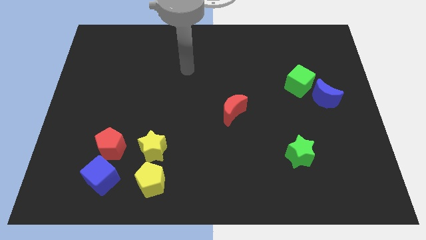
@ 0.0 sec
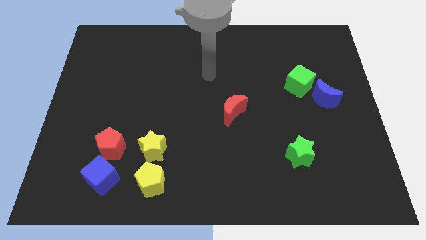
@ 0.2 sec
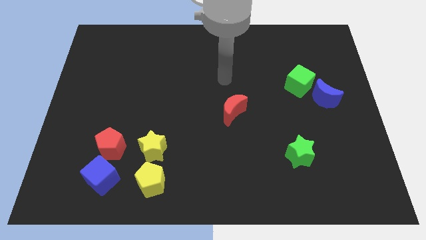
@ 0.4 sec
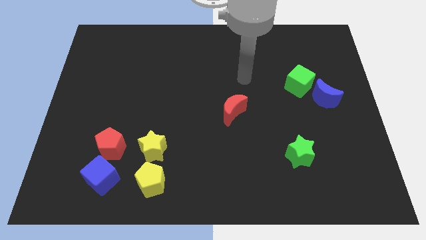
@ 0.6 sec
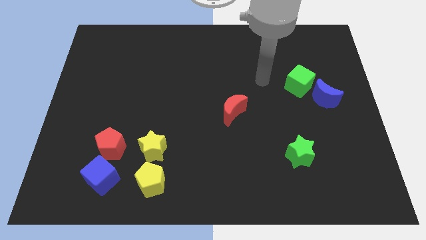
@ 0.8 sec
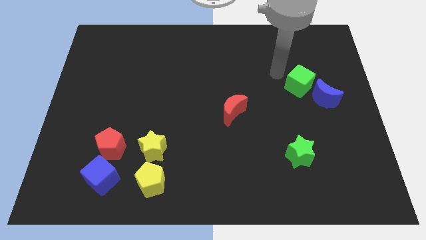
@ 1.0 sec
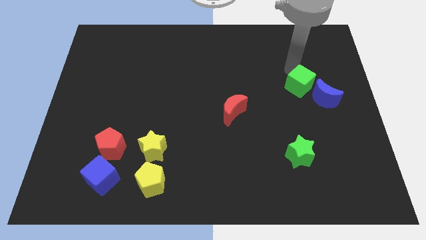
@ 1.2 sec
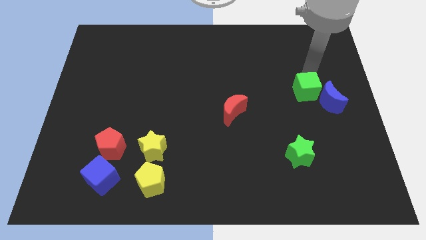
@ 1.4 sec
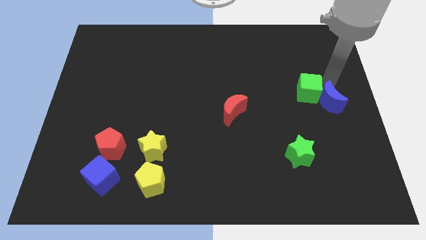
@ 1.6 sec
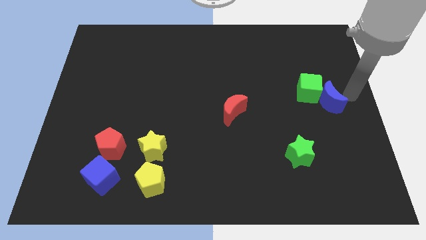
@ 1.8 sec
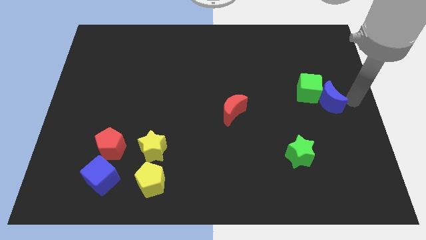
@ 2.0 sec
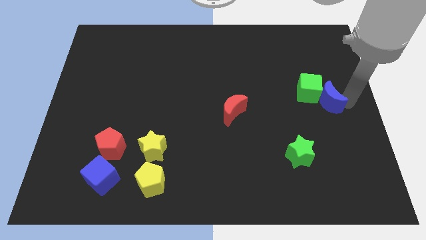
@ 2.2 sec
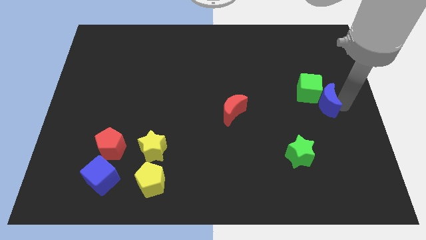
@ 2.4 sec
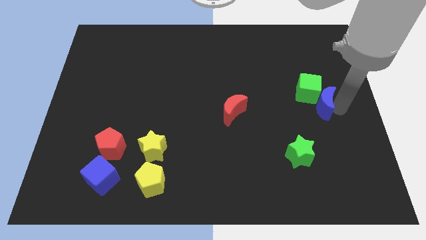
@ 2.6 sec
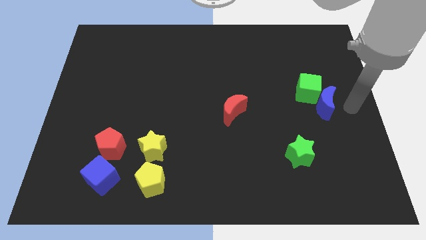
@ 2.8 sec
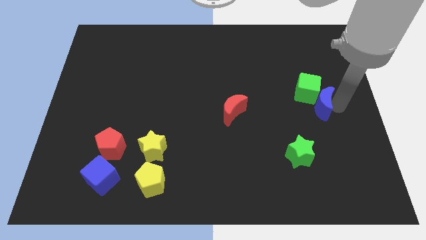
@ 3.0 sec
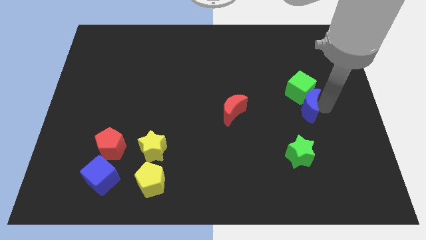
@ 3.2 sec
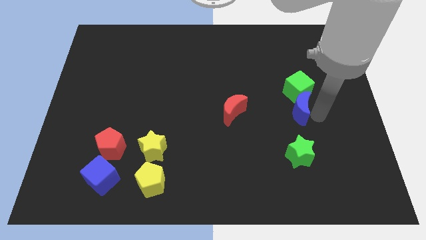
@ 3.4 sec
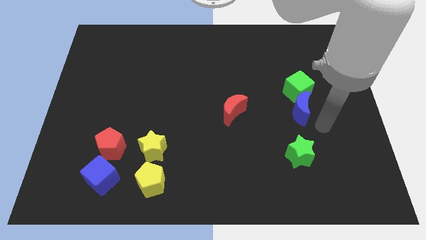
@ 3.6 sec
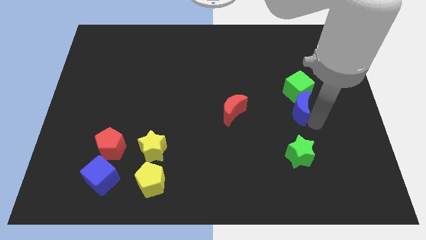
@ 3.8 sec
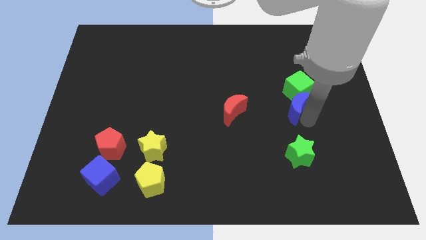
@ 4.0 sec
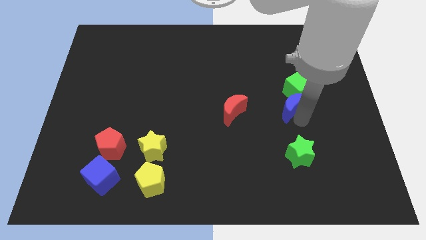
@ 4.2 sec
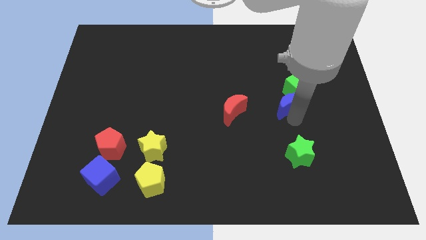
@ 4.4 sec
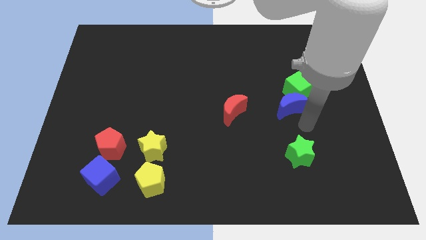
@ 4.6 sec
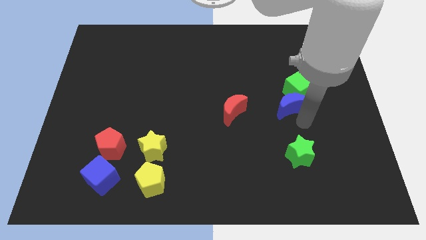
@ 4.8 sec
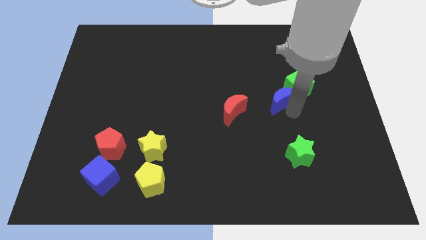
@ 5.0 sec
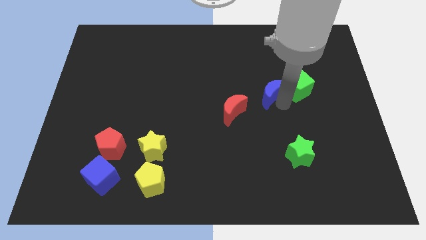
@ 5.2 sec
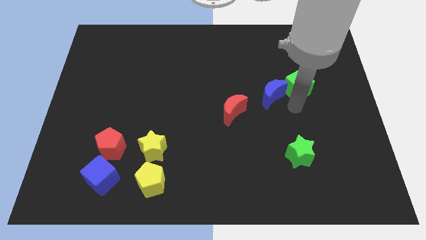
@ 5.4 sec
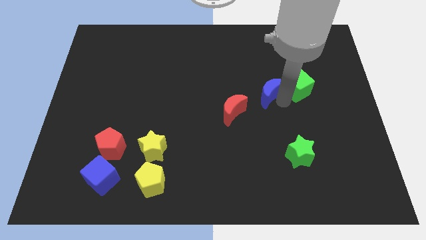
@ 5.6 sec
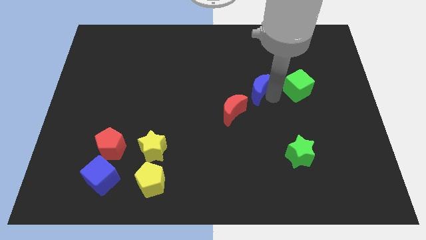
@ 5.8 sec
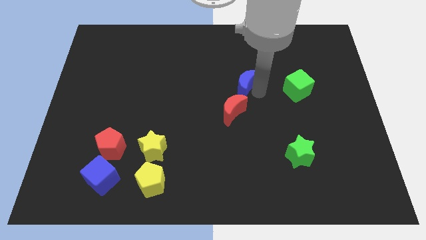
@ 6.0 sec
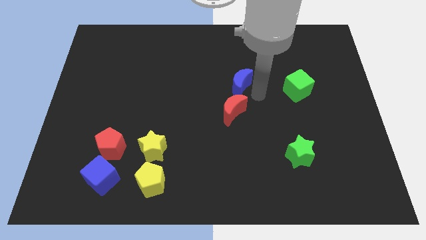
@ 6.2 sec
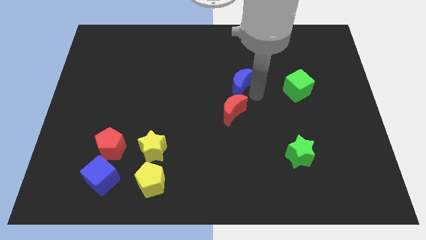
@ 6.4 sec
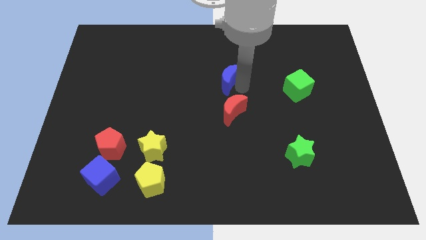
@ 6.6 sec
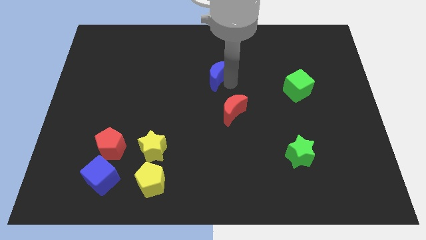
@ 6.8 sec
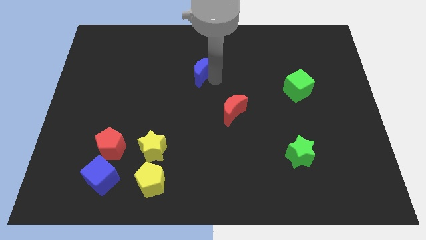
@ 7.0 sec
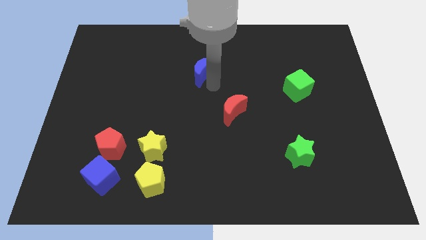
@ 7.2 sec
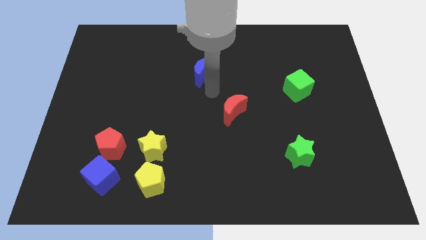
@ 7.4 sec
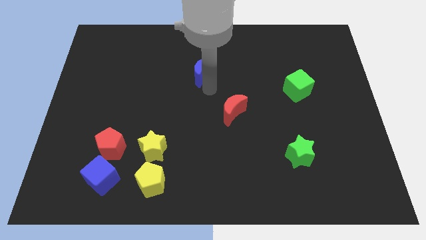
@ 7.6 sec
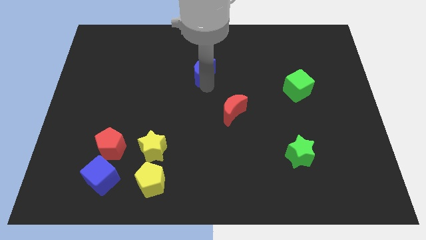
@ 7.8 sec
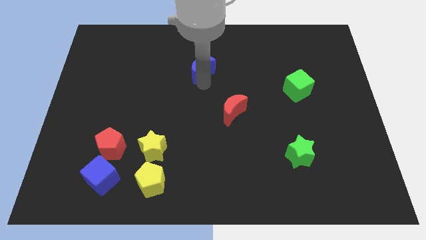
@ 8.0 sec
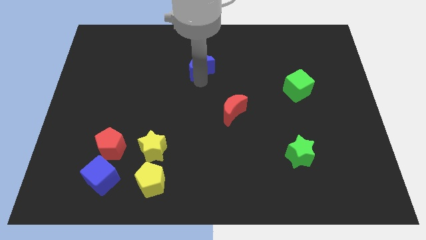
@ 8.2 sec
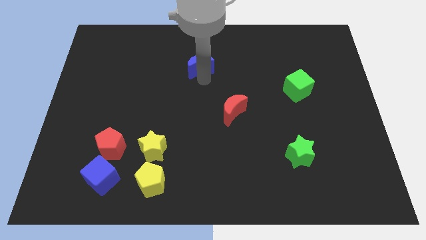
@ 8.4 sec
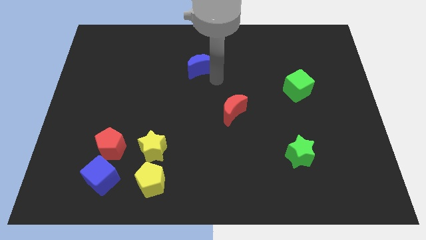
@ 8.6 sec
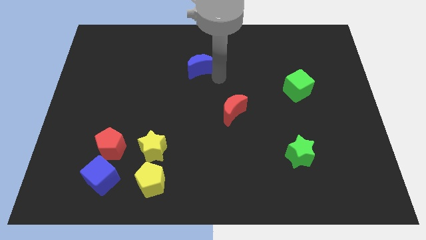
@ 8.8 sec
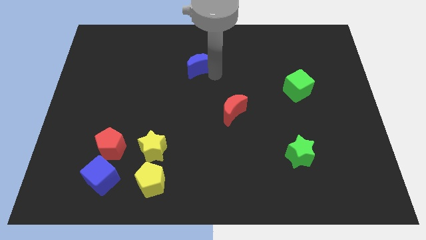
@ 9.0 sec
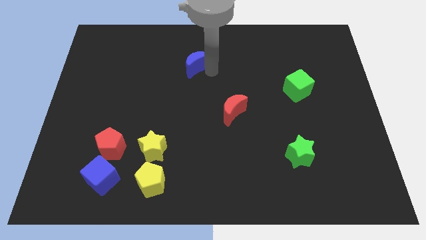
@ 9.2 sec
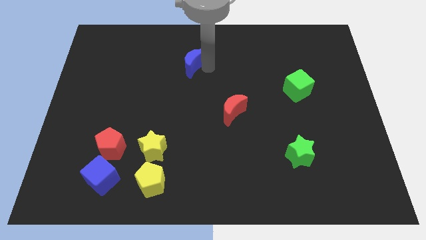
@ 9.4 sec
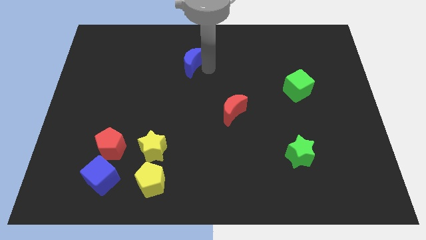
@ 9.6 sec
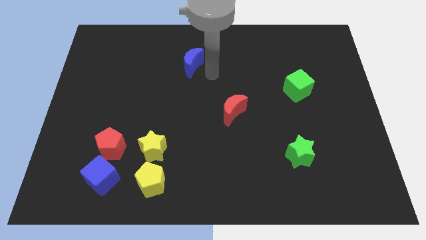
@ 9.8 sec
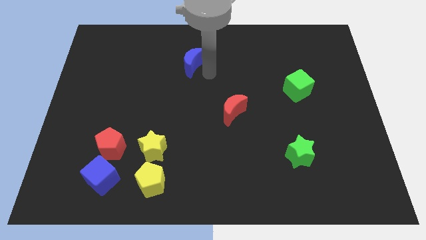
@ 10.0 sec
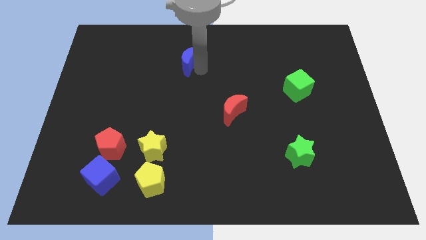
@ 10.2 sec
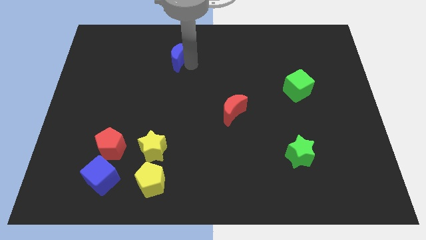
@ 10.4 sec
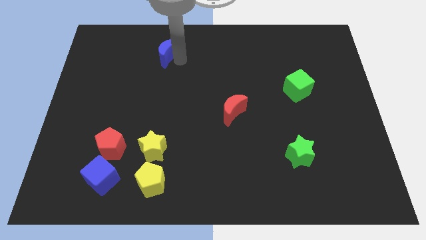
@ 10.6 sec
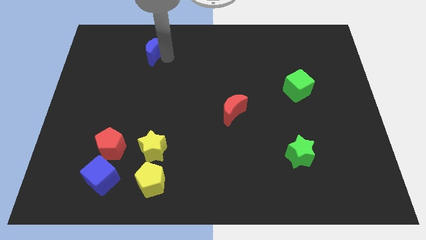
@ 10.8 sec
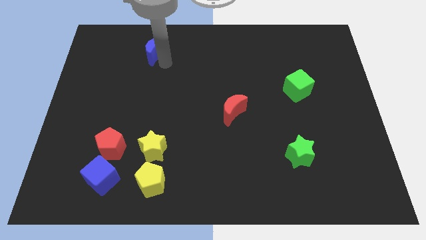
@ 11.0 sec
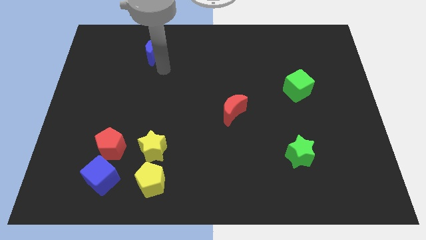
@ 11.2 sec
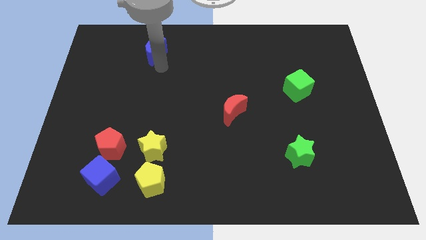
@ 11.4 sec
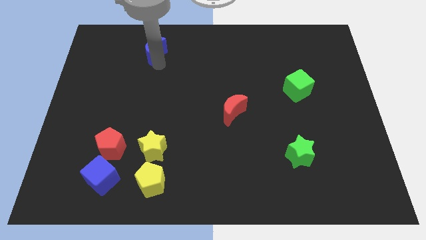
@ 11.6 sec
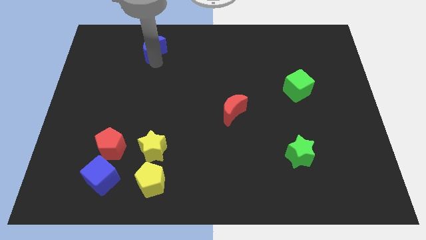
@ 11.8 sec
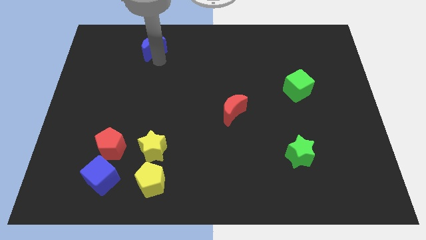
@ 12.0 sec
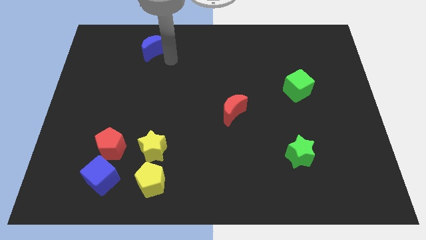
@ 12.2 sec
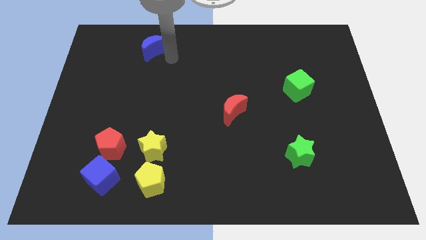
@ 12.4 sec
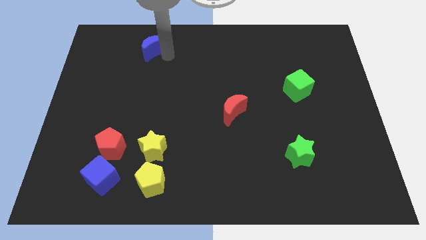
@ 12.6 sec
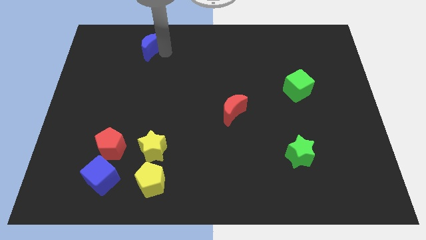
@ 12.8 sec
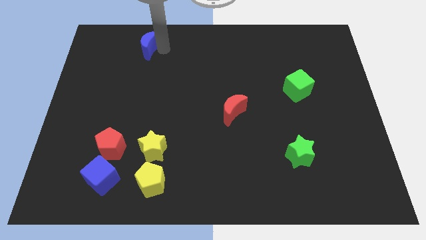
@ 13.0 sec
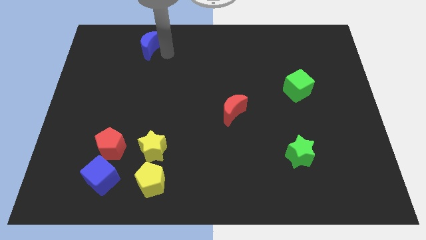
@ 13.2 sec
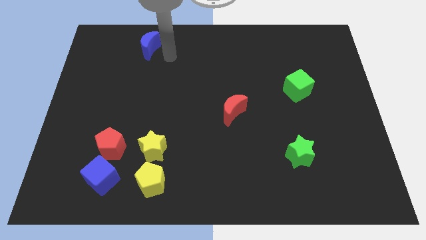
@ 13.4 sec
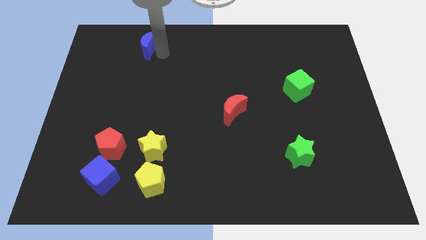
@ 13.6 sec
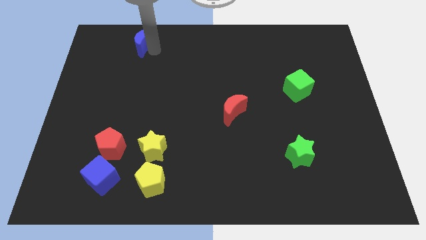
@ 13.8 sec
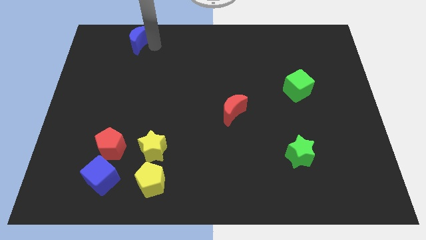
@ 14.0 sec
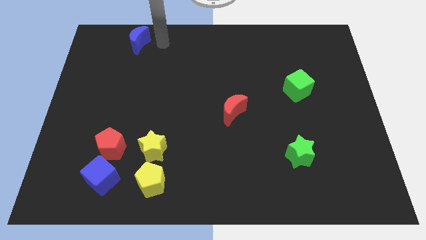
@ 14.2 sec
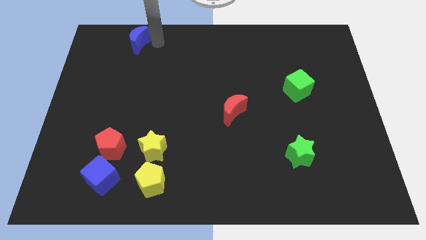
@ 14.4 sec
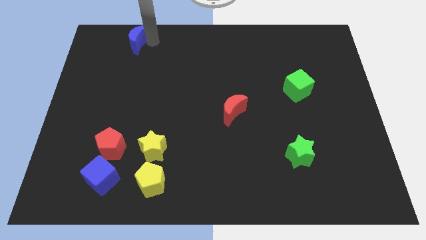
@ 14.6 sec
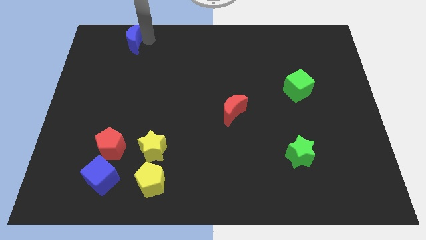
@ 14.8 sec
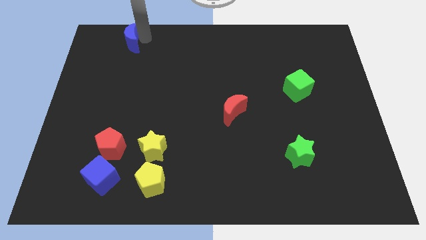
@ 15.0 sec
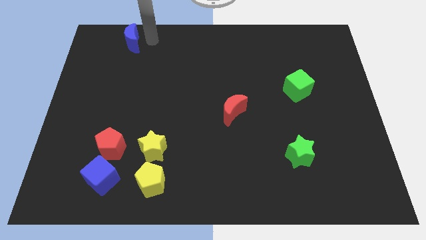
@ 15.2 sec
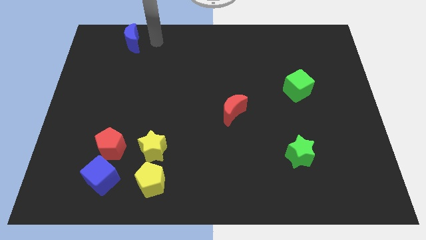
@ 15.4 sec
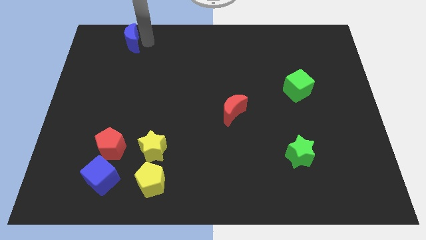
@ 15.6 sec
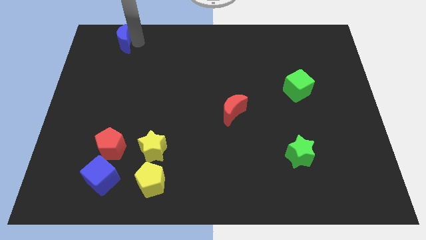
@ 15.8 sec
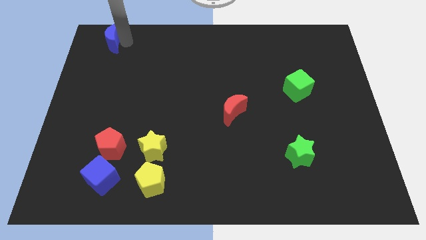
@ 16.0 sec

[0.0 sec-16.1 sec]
move the blue moon to the top left
